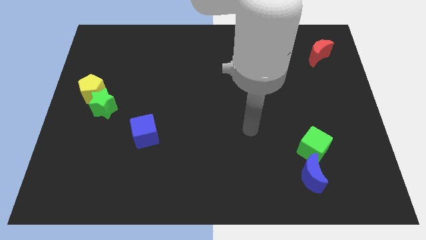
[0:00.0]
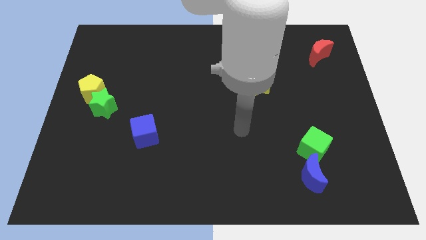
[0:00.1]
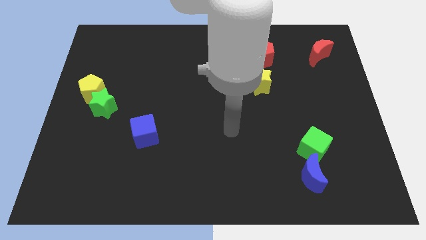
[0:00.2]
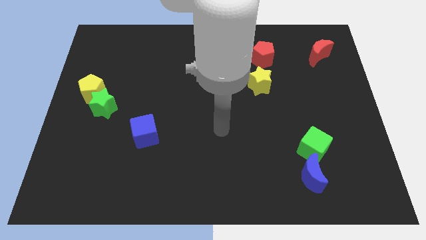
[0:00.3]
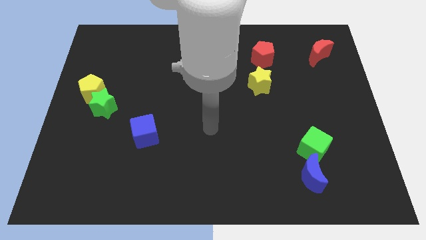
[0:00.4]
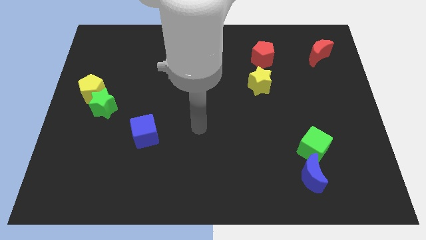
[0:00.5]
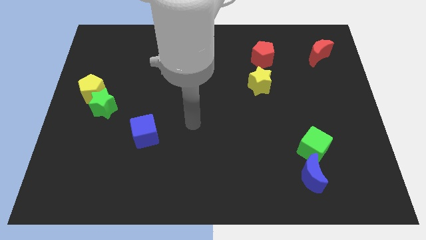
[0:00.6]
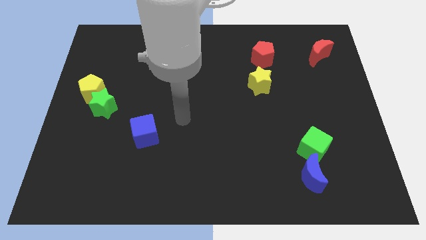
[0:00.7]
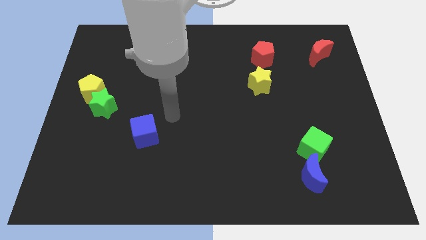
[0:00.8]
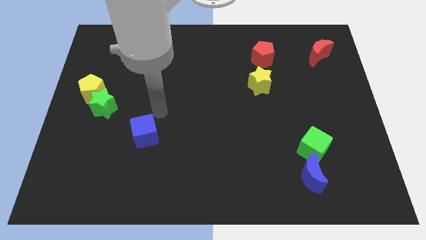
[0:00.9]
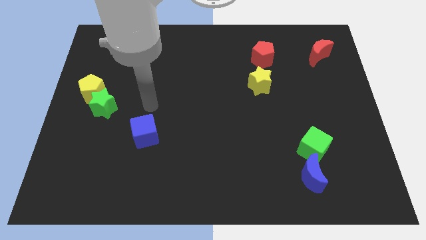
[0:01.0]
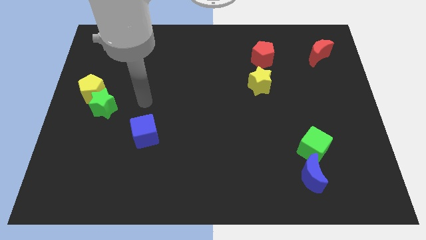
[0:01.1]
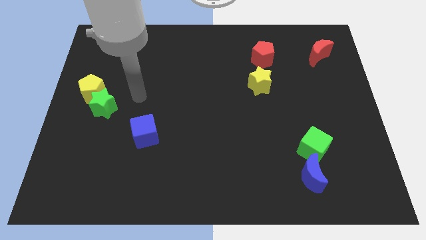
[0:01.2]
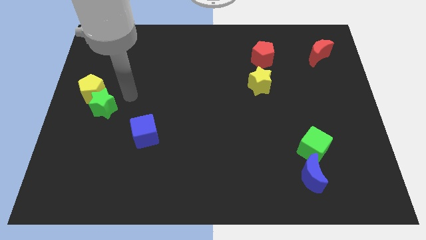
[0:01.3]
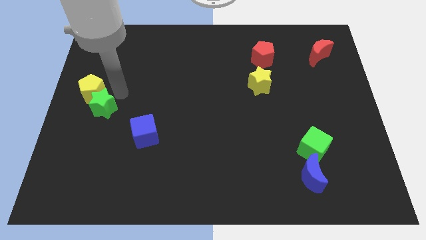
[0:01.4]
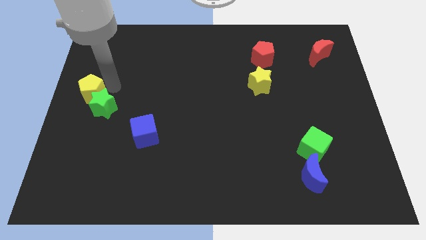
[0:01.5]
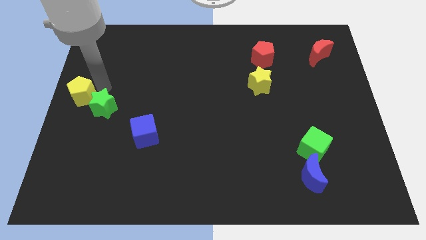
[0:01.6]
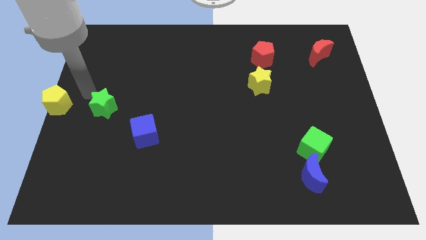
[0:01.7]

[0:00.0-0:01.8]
separate the green star from the yellow pentagon

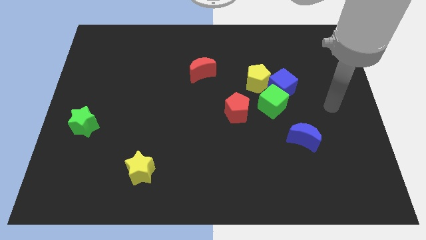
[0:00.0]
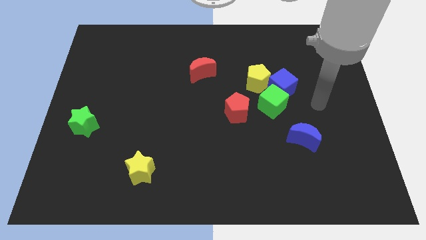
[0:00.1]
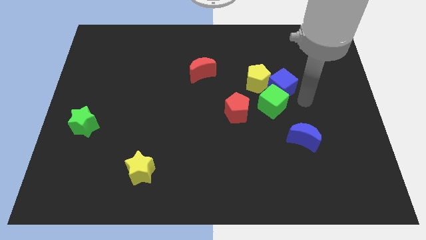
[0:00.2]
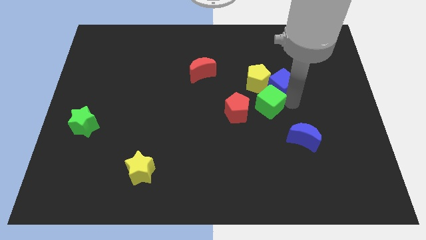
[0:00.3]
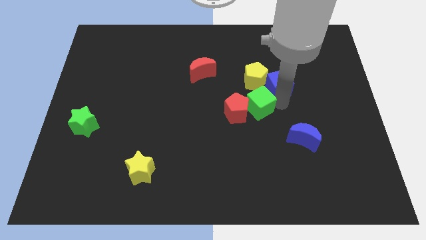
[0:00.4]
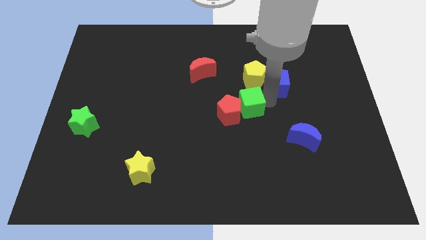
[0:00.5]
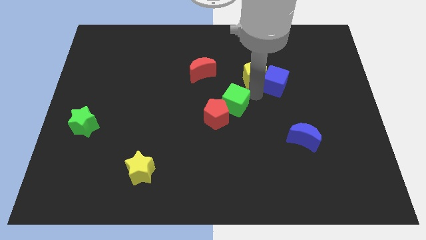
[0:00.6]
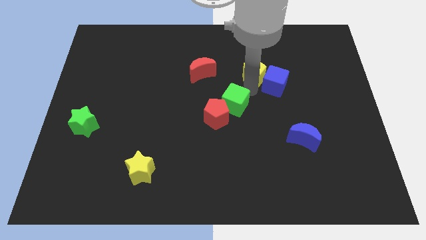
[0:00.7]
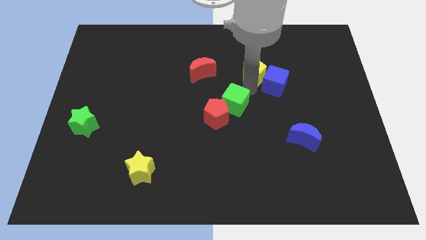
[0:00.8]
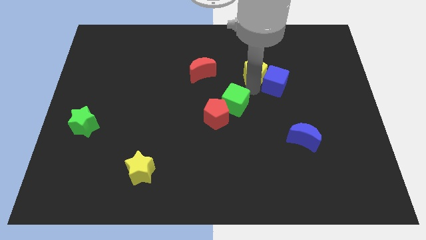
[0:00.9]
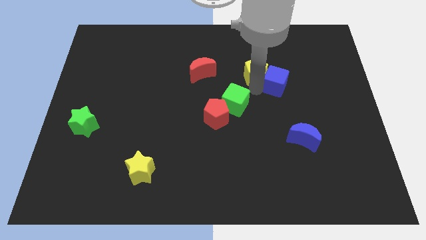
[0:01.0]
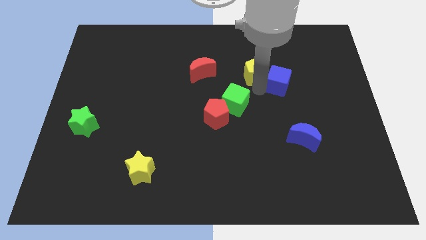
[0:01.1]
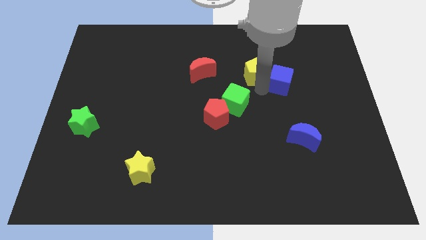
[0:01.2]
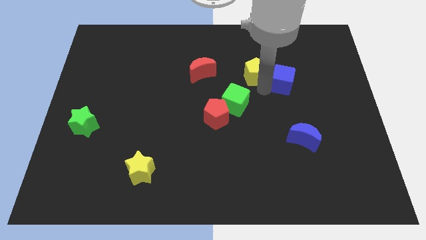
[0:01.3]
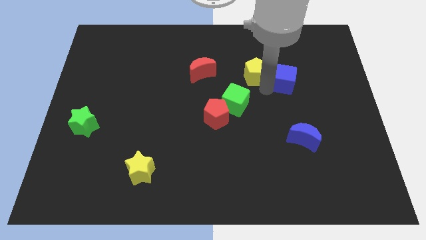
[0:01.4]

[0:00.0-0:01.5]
separate the blue cube from the green cube and yellow pentagon

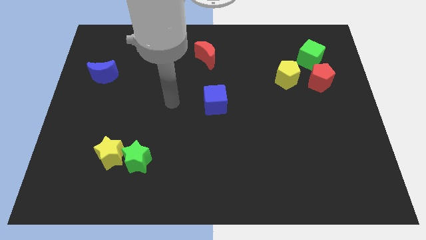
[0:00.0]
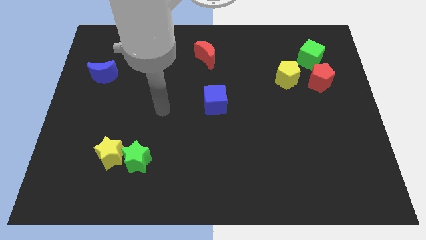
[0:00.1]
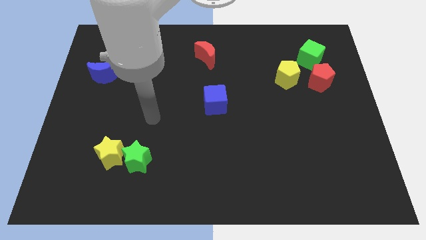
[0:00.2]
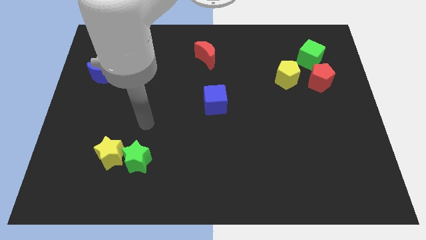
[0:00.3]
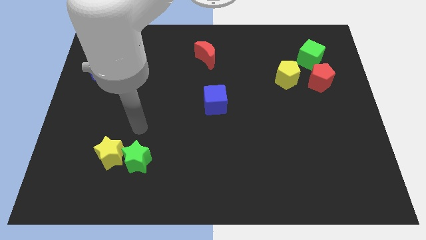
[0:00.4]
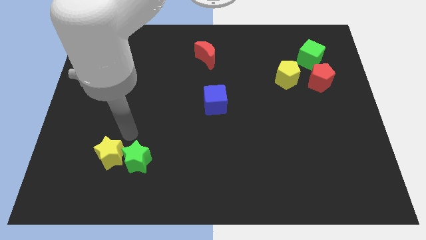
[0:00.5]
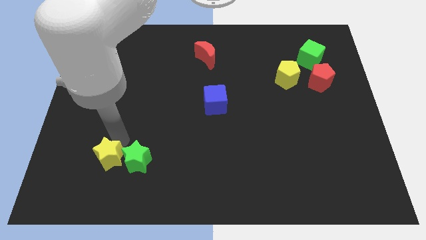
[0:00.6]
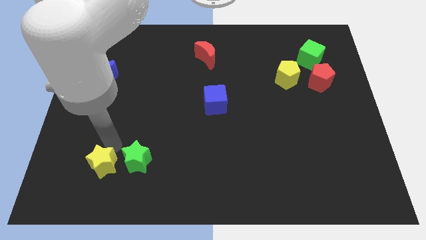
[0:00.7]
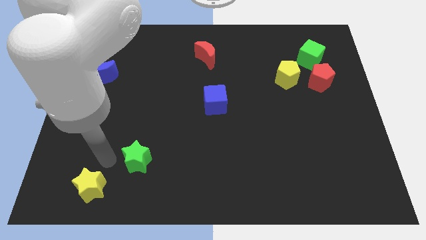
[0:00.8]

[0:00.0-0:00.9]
move the green star away from the yellow star

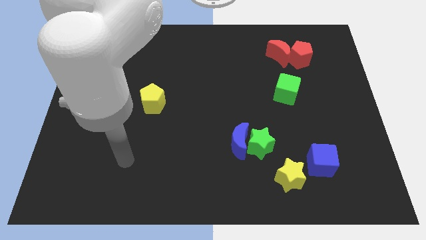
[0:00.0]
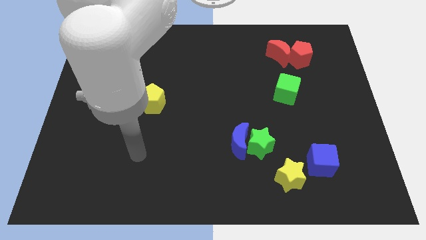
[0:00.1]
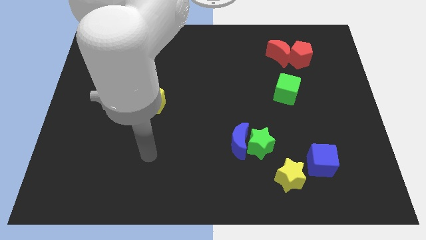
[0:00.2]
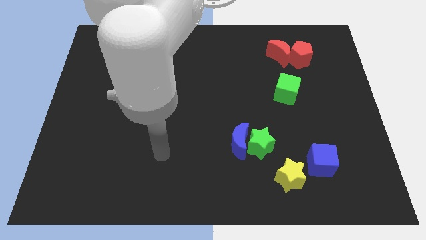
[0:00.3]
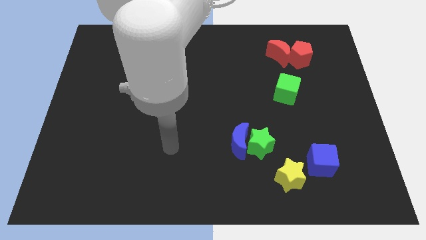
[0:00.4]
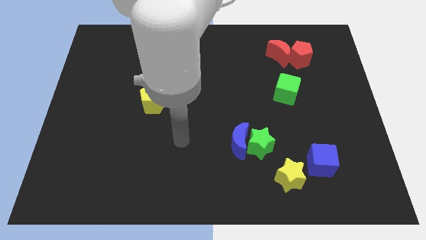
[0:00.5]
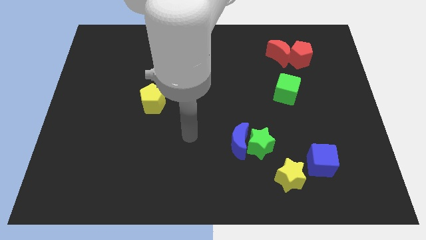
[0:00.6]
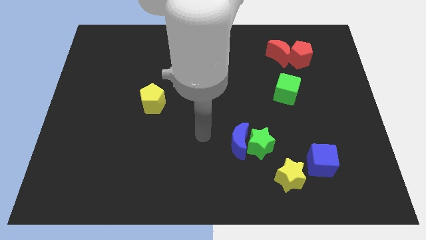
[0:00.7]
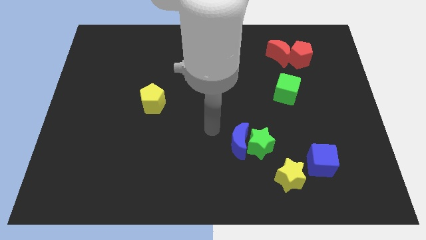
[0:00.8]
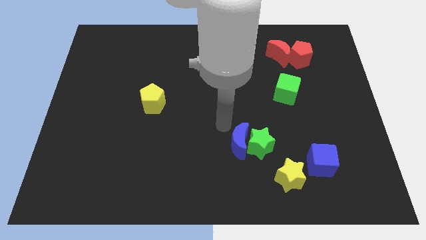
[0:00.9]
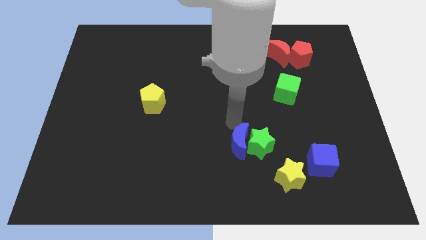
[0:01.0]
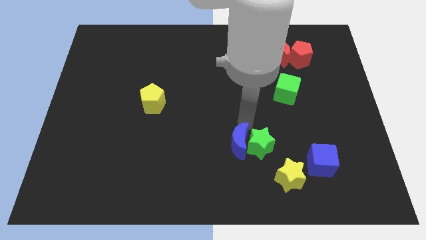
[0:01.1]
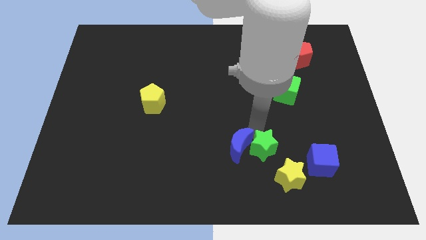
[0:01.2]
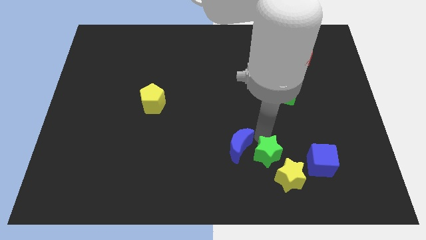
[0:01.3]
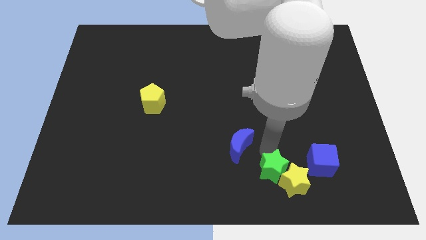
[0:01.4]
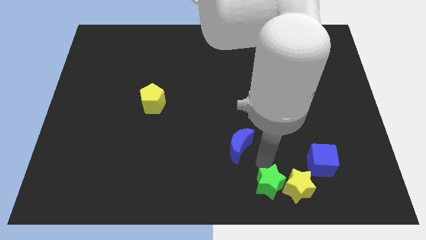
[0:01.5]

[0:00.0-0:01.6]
move the blue moon away from the green star

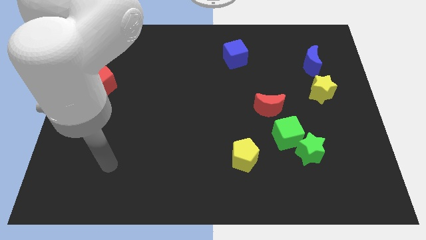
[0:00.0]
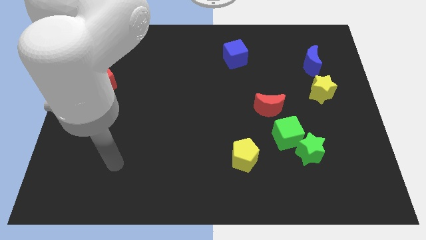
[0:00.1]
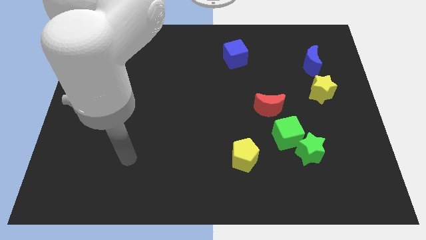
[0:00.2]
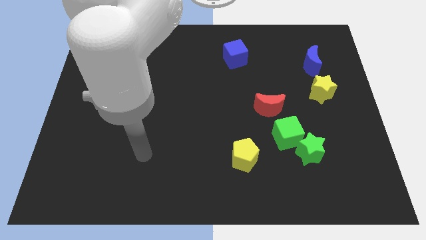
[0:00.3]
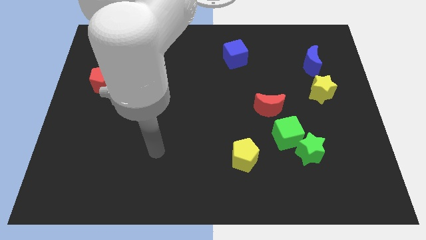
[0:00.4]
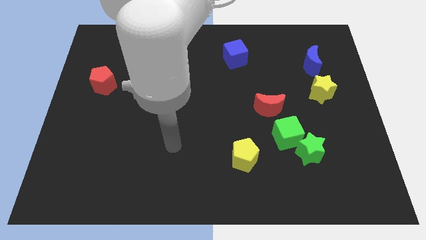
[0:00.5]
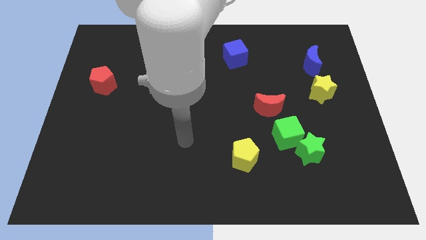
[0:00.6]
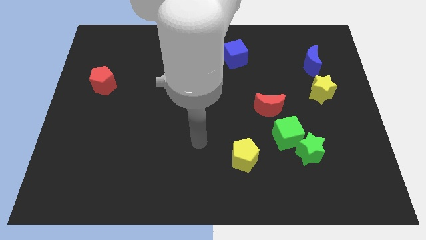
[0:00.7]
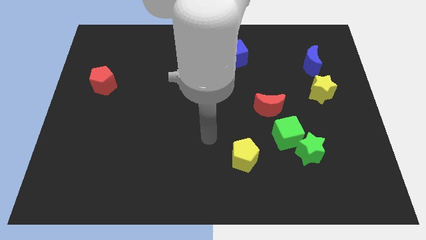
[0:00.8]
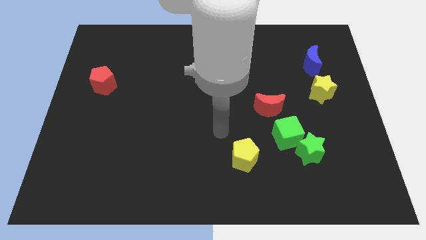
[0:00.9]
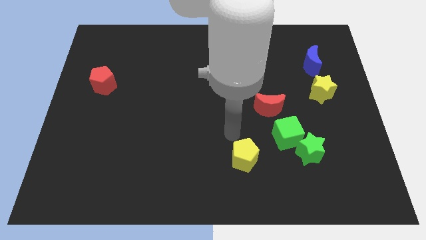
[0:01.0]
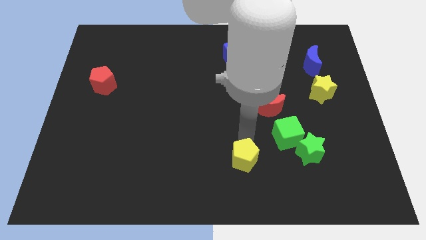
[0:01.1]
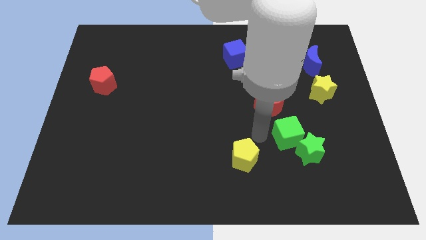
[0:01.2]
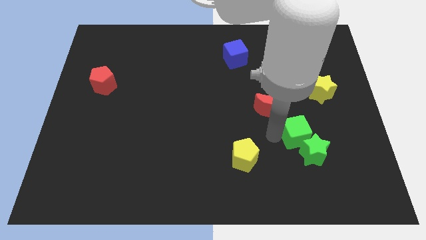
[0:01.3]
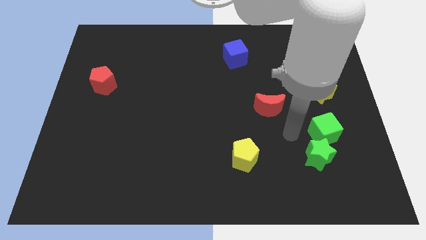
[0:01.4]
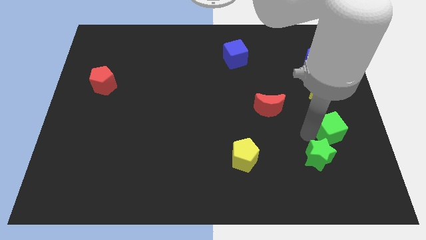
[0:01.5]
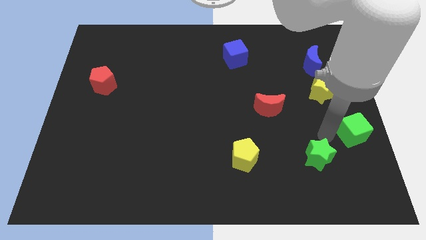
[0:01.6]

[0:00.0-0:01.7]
pull the green star apart from the green cube

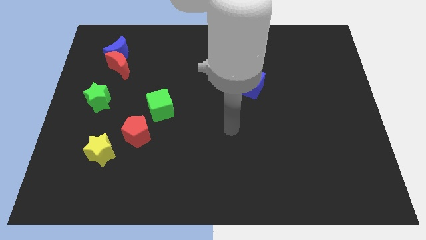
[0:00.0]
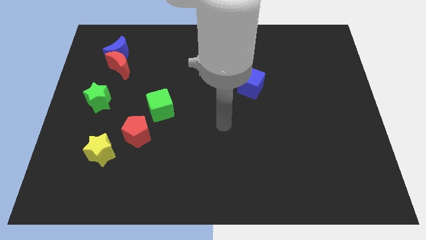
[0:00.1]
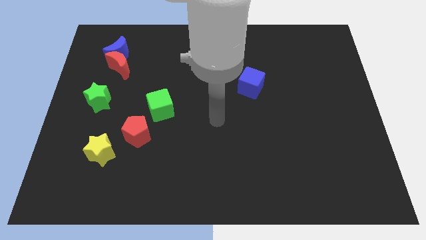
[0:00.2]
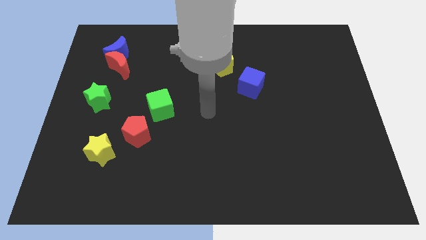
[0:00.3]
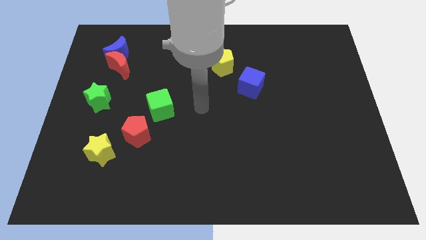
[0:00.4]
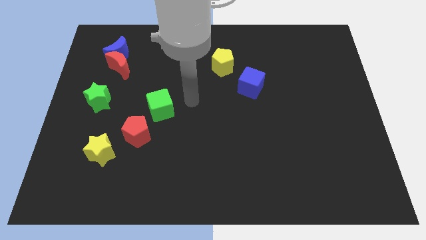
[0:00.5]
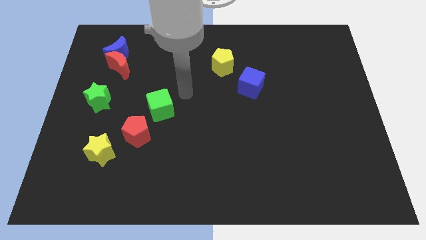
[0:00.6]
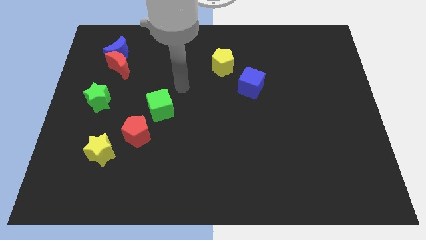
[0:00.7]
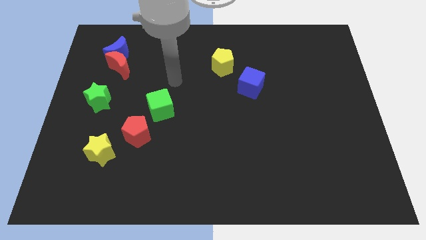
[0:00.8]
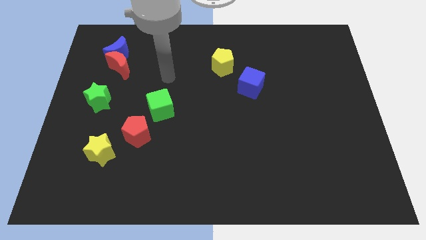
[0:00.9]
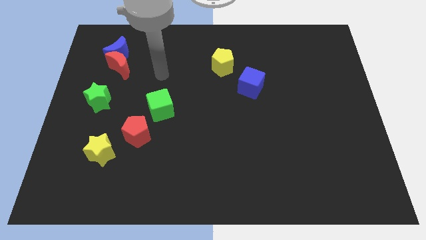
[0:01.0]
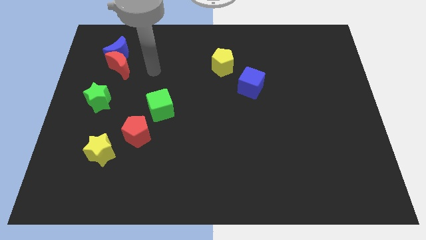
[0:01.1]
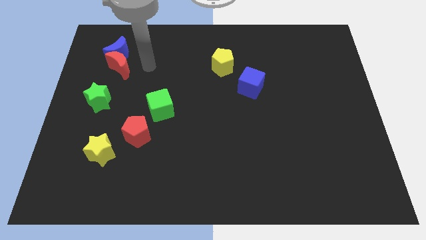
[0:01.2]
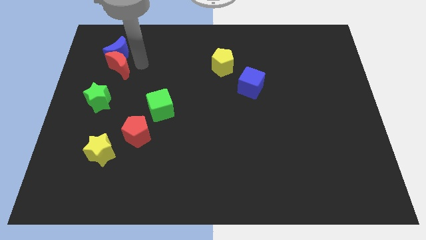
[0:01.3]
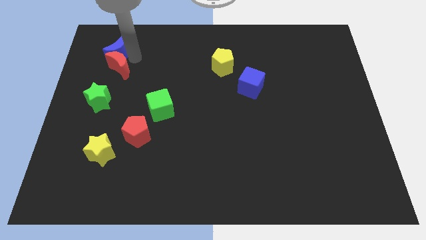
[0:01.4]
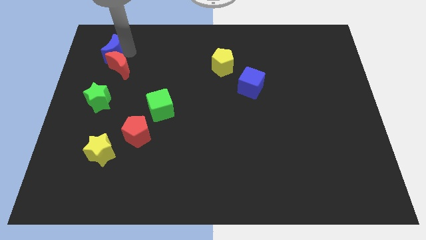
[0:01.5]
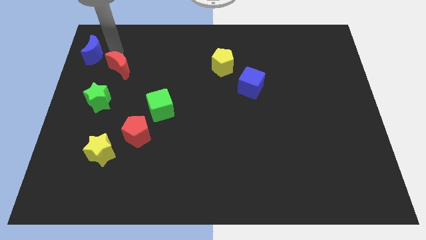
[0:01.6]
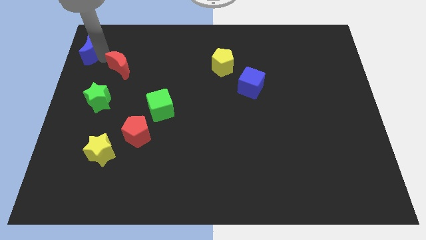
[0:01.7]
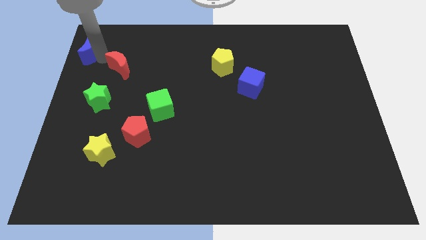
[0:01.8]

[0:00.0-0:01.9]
separate the red moon from the blue moon
